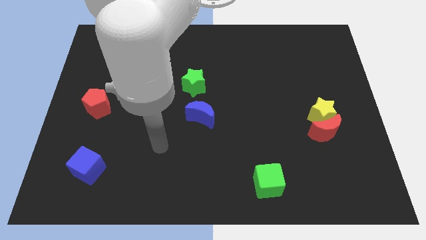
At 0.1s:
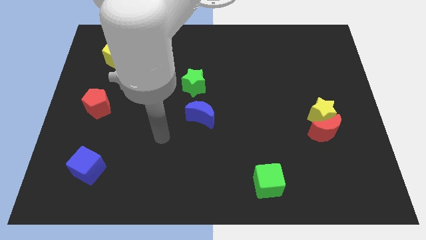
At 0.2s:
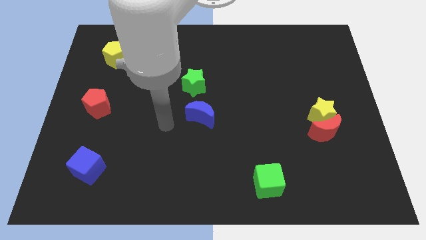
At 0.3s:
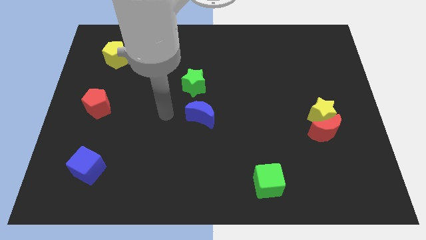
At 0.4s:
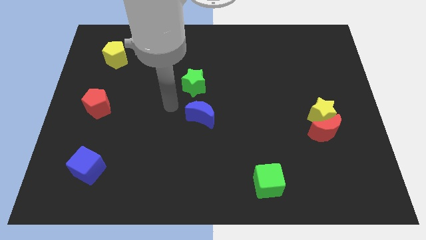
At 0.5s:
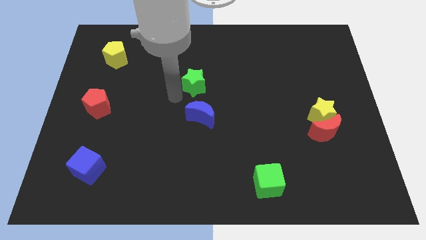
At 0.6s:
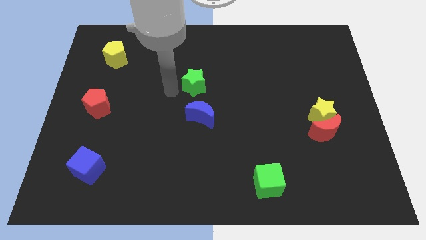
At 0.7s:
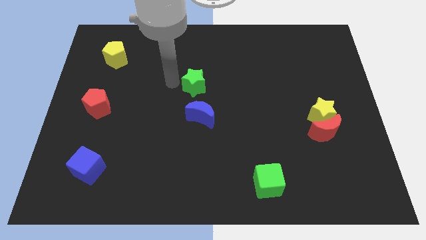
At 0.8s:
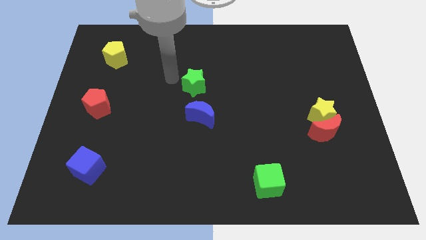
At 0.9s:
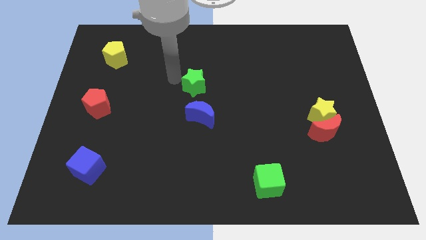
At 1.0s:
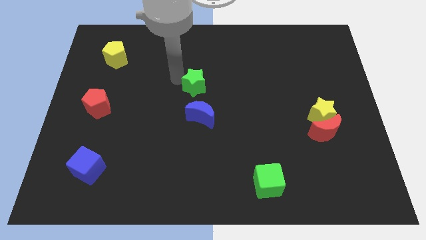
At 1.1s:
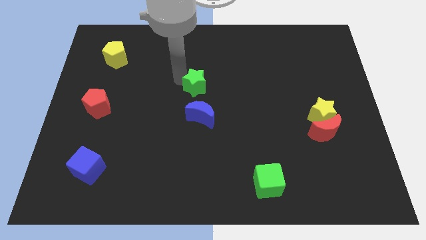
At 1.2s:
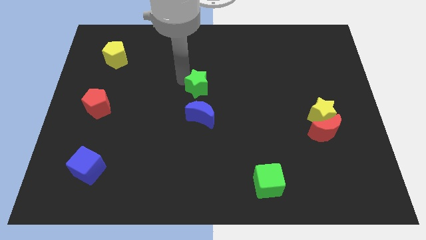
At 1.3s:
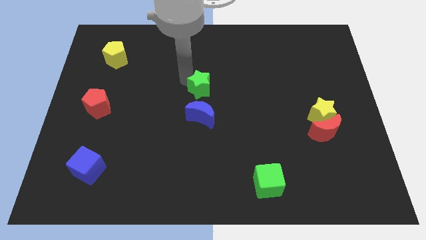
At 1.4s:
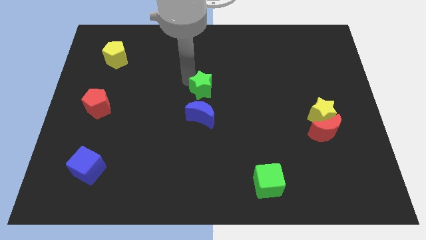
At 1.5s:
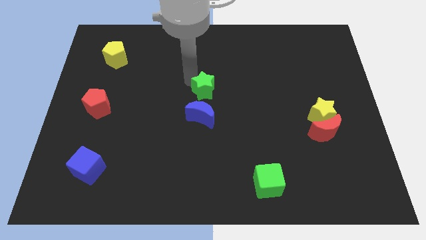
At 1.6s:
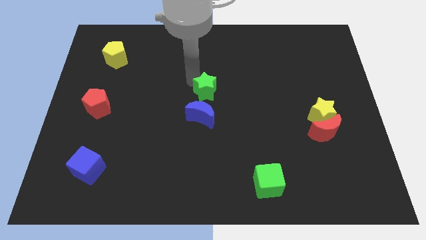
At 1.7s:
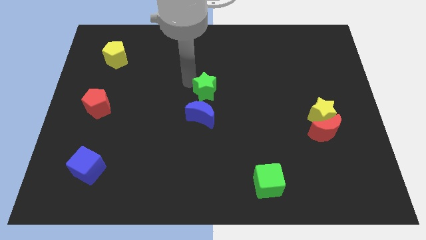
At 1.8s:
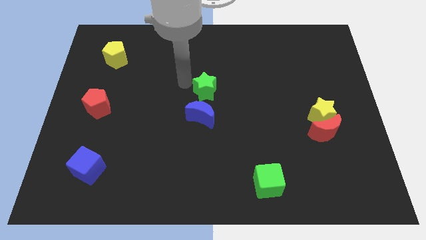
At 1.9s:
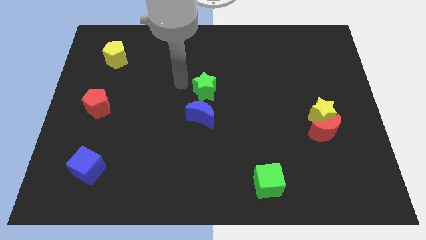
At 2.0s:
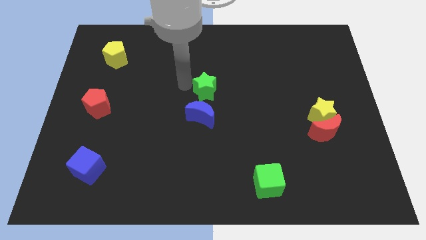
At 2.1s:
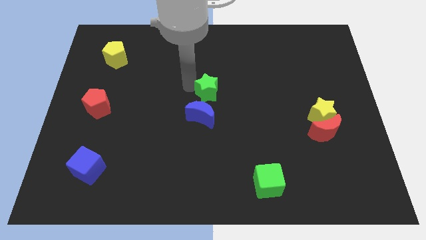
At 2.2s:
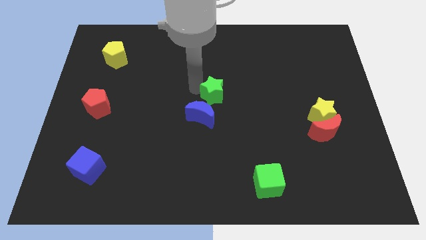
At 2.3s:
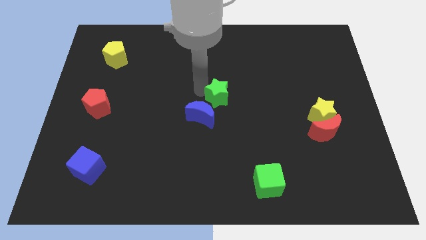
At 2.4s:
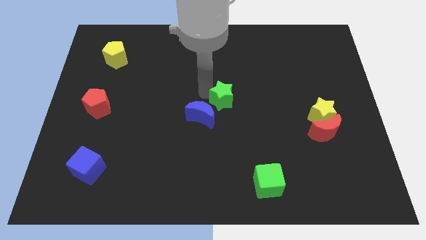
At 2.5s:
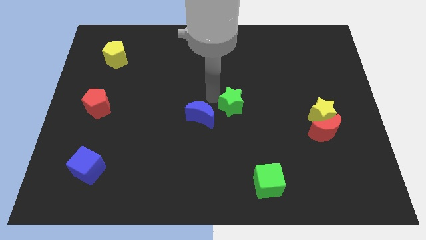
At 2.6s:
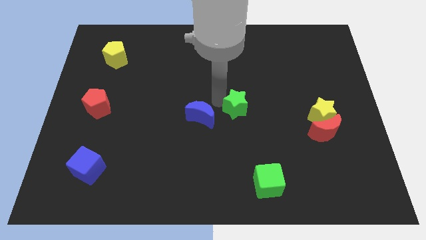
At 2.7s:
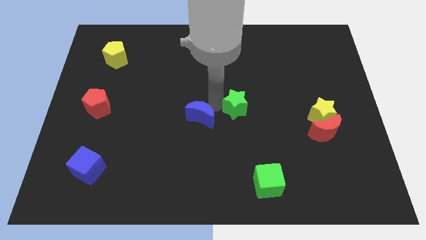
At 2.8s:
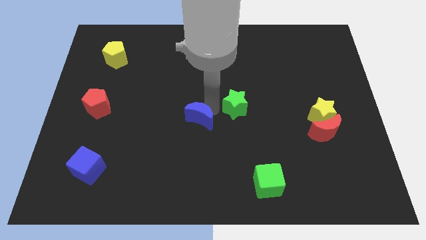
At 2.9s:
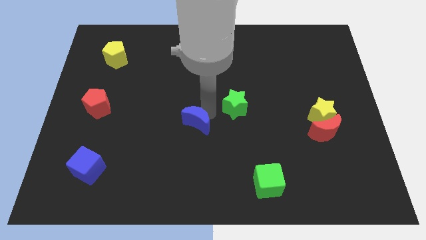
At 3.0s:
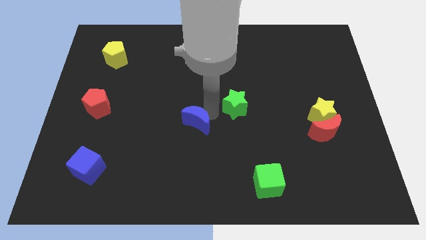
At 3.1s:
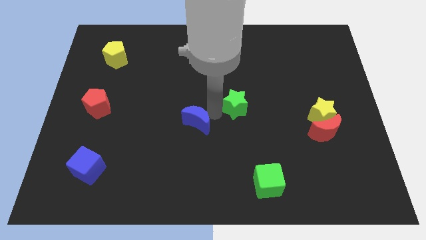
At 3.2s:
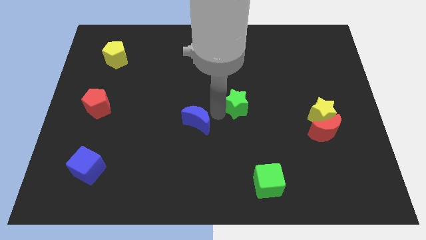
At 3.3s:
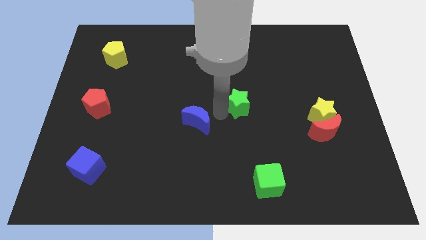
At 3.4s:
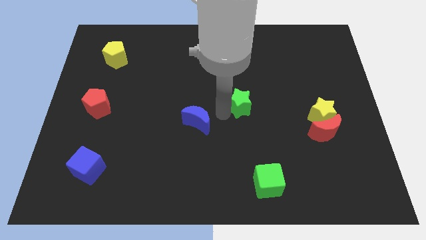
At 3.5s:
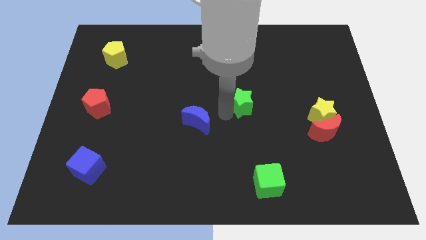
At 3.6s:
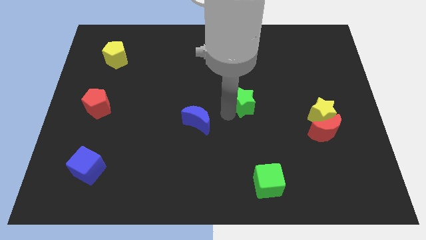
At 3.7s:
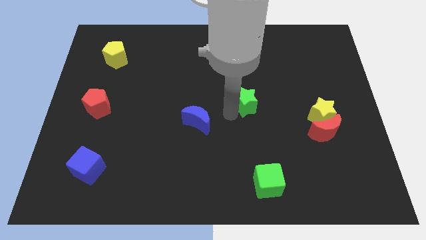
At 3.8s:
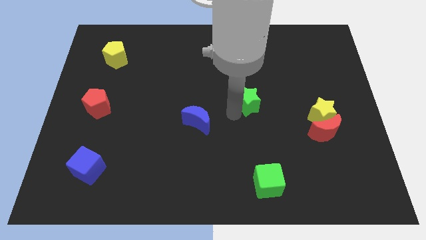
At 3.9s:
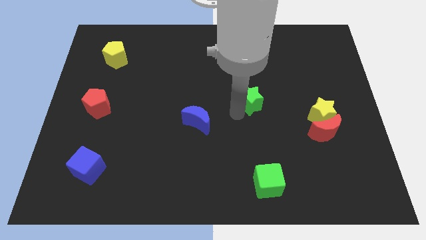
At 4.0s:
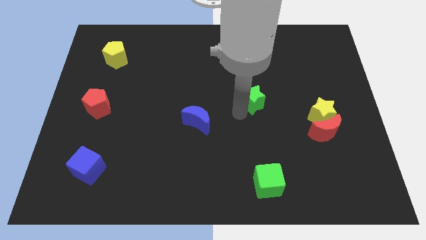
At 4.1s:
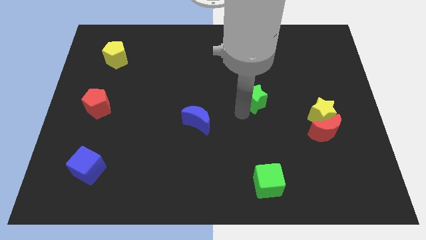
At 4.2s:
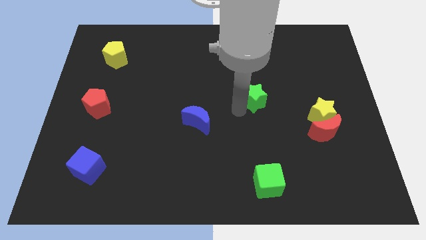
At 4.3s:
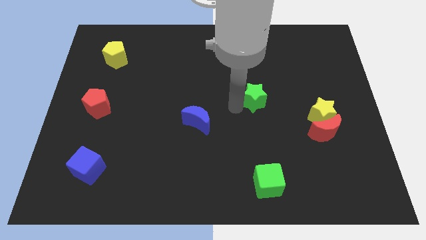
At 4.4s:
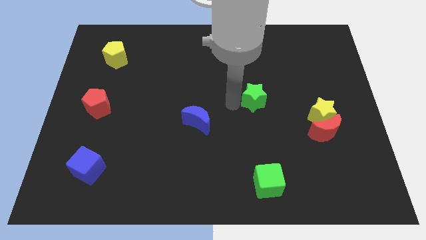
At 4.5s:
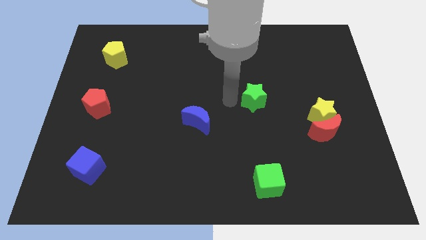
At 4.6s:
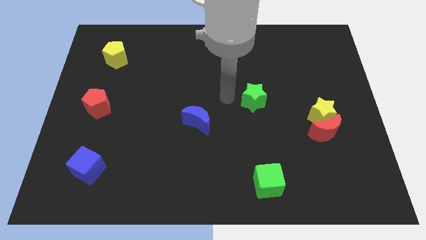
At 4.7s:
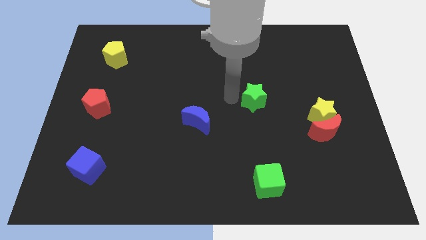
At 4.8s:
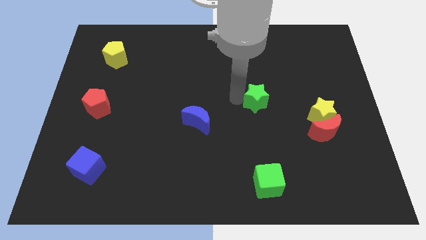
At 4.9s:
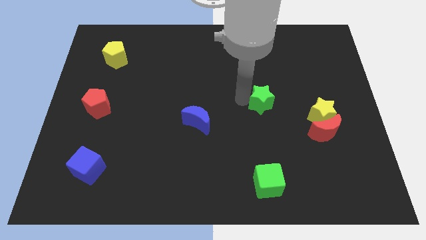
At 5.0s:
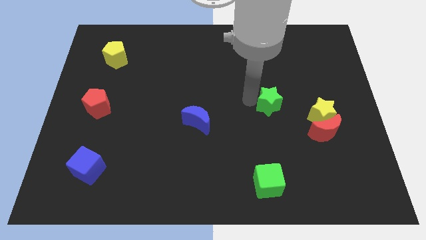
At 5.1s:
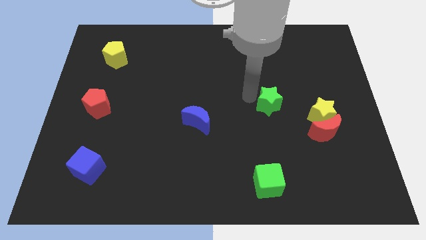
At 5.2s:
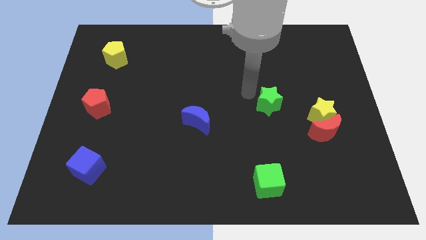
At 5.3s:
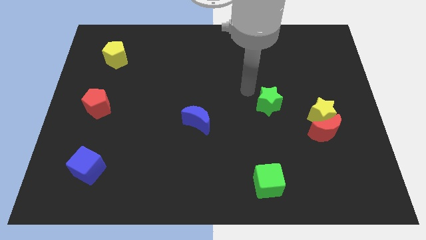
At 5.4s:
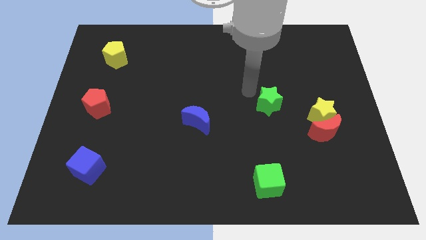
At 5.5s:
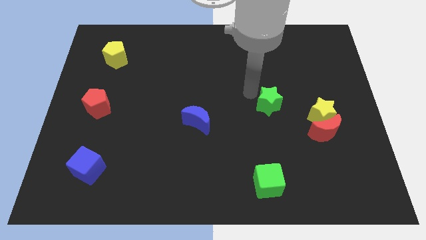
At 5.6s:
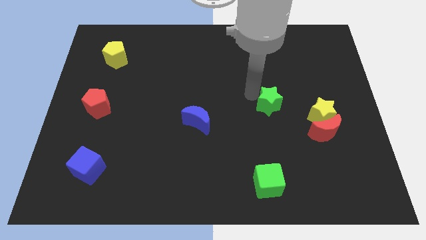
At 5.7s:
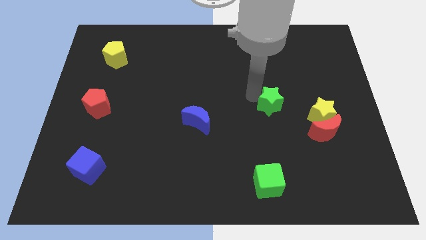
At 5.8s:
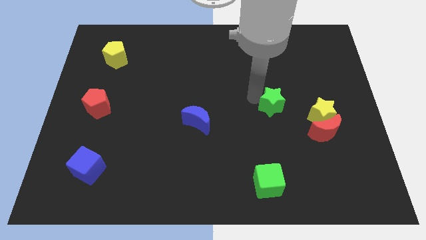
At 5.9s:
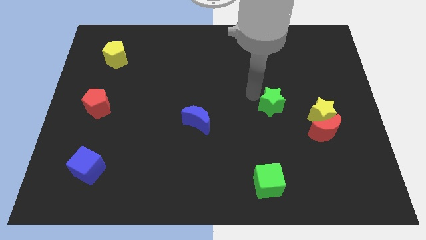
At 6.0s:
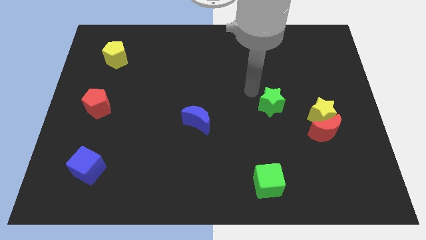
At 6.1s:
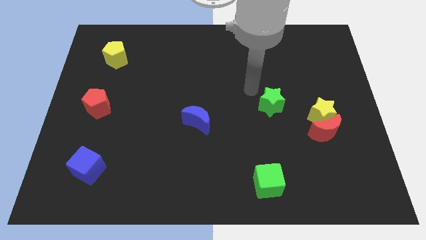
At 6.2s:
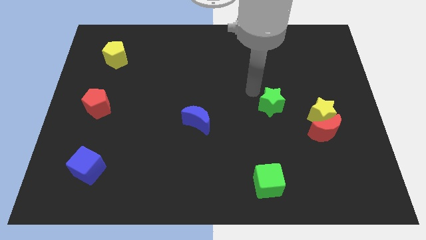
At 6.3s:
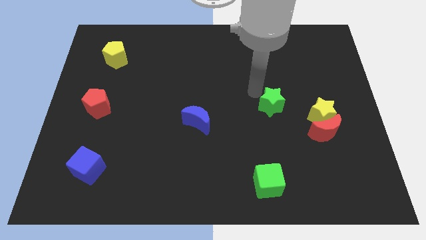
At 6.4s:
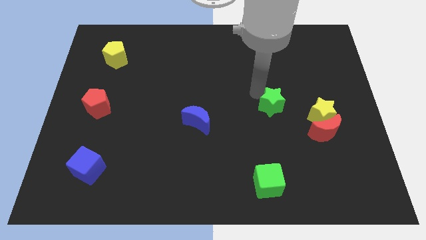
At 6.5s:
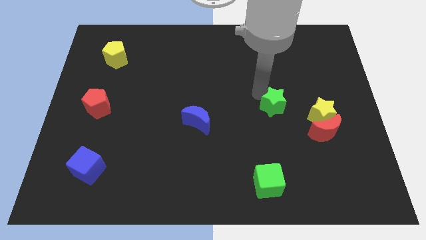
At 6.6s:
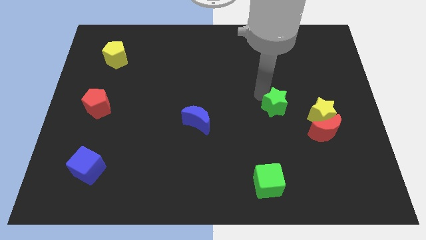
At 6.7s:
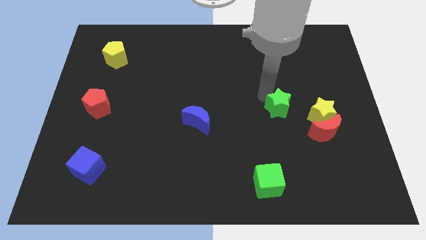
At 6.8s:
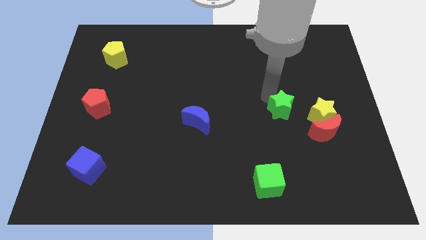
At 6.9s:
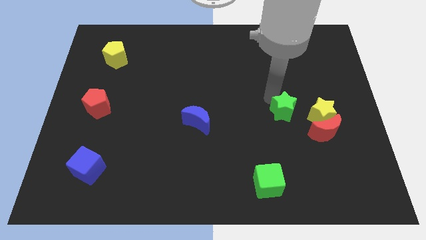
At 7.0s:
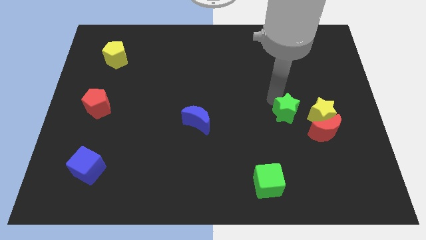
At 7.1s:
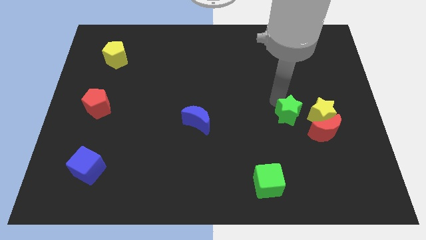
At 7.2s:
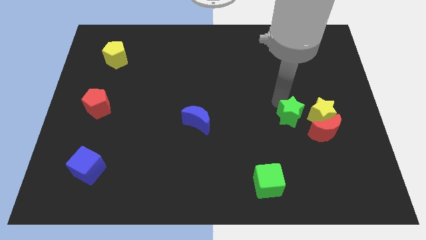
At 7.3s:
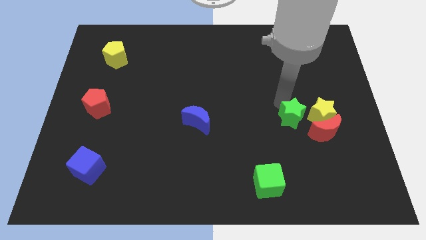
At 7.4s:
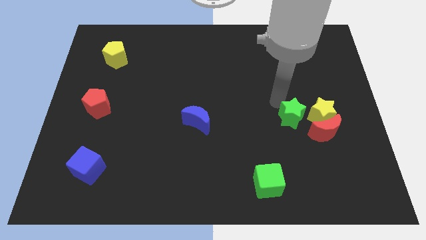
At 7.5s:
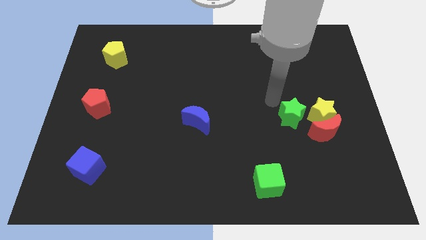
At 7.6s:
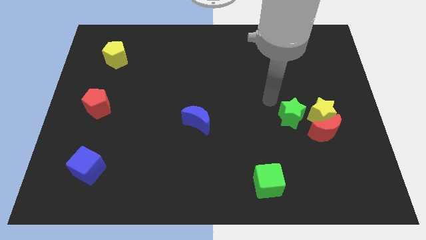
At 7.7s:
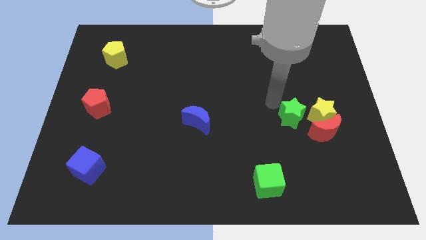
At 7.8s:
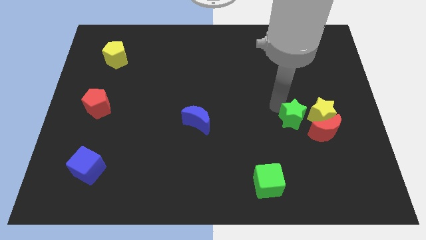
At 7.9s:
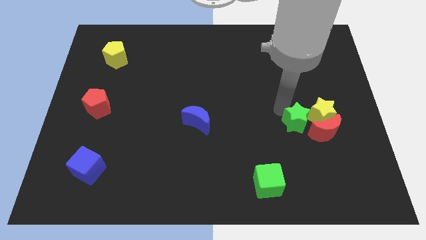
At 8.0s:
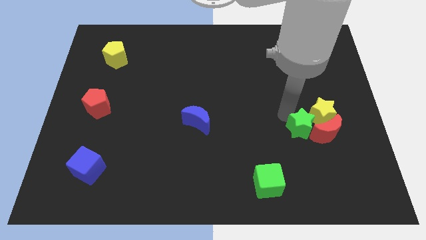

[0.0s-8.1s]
slide the green star to the red moon
